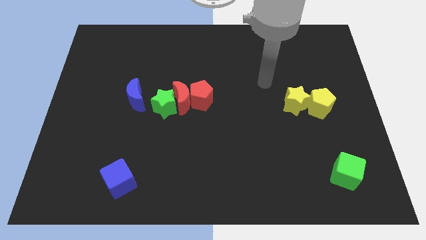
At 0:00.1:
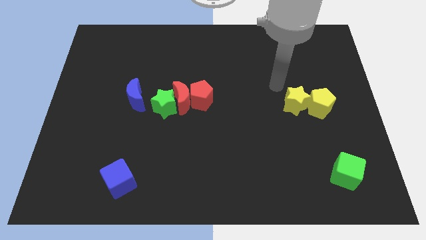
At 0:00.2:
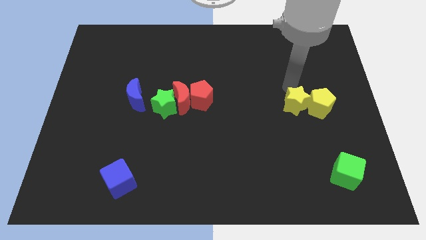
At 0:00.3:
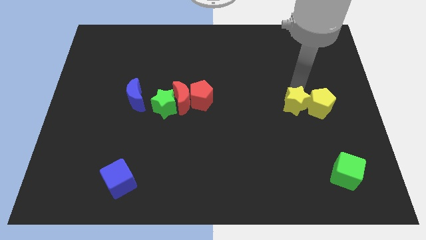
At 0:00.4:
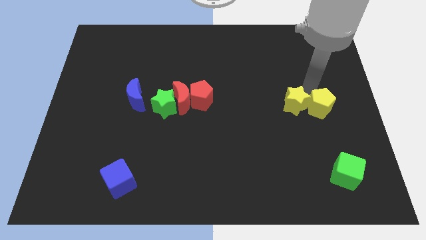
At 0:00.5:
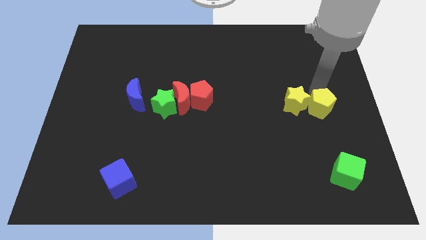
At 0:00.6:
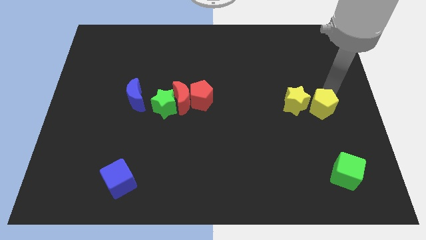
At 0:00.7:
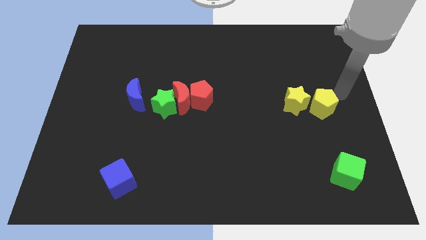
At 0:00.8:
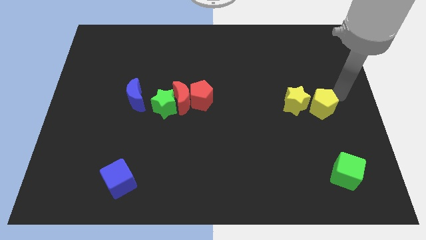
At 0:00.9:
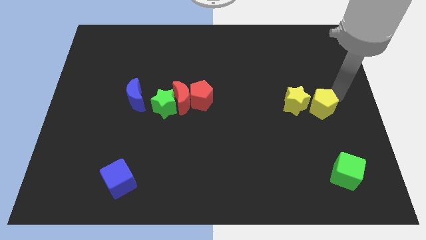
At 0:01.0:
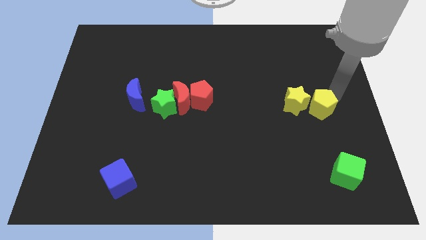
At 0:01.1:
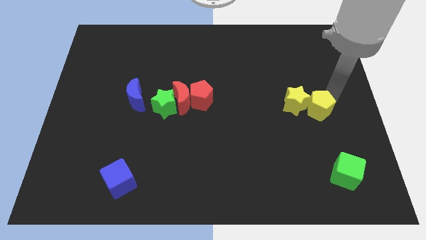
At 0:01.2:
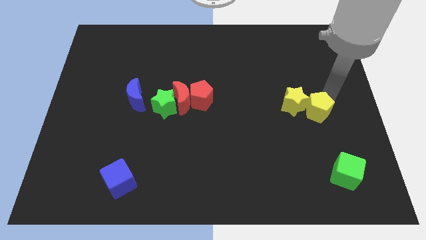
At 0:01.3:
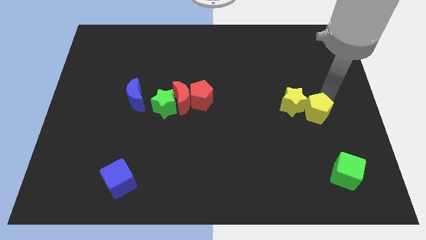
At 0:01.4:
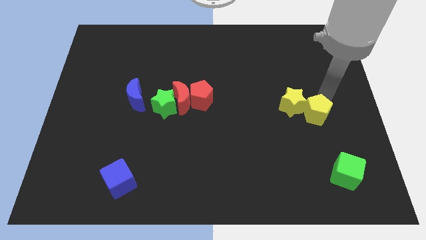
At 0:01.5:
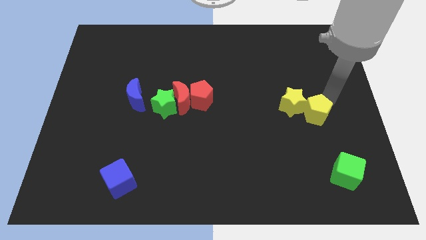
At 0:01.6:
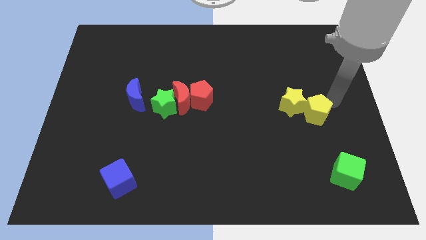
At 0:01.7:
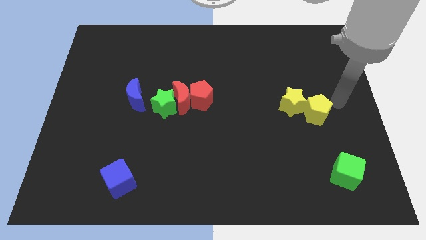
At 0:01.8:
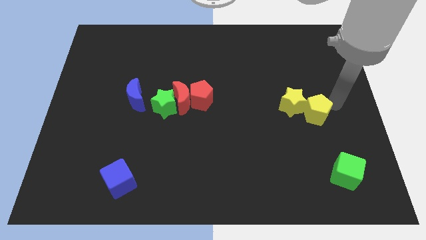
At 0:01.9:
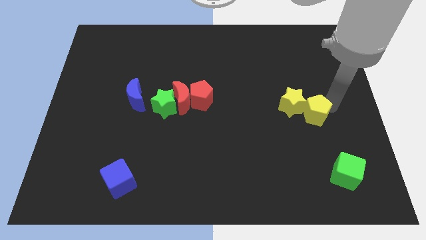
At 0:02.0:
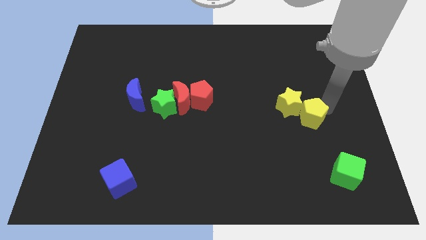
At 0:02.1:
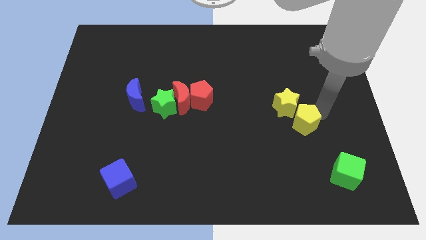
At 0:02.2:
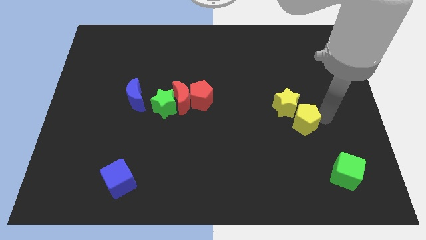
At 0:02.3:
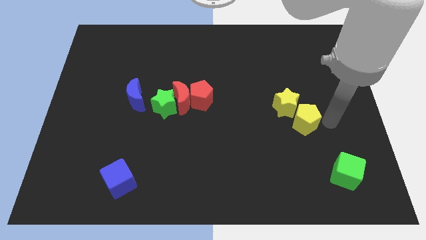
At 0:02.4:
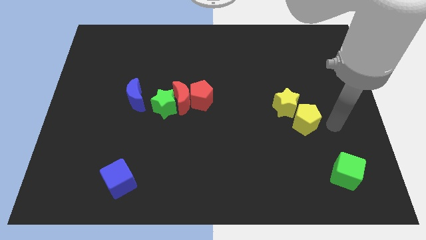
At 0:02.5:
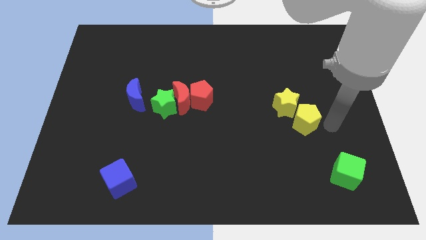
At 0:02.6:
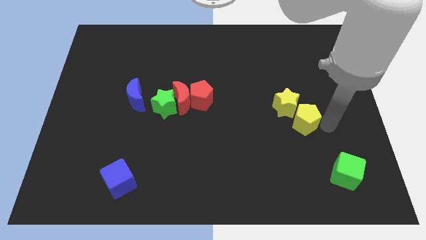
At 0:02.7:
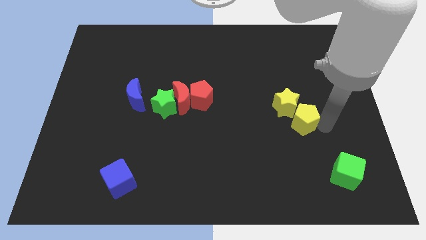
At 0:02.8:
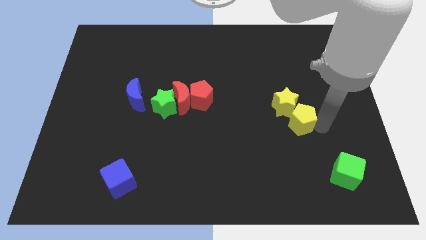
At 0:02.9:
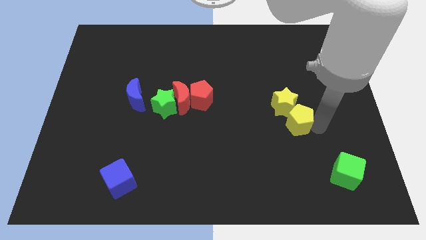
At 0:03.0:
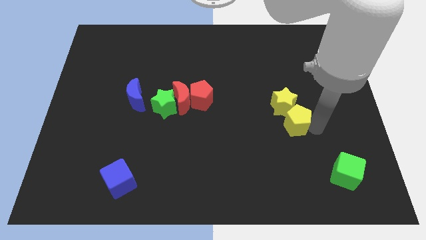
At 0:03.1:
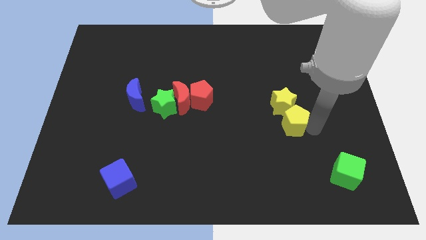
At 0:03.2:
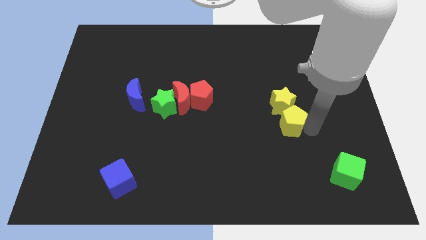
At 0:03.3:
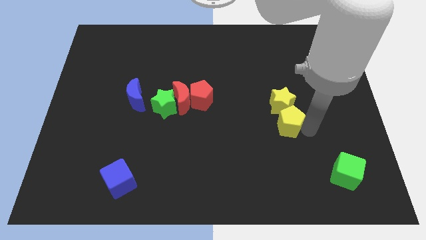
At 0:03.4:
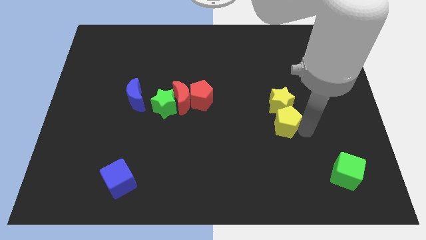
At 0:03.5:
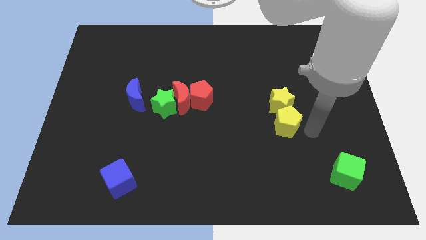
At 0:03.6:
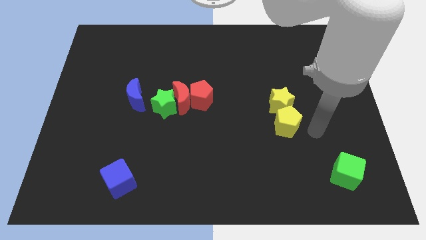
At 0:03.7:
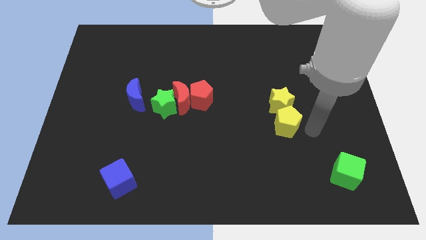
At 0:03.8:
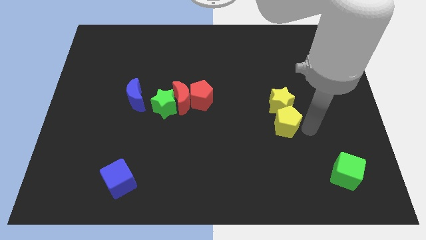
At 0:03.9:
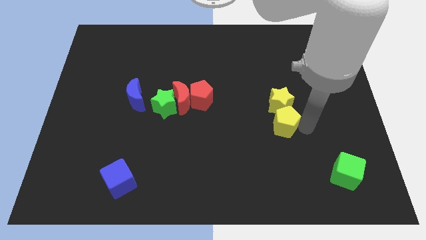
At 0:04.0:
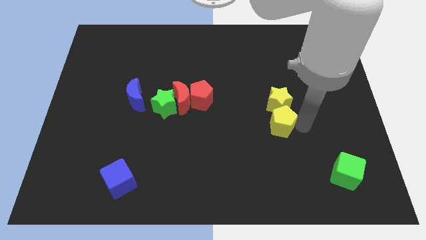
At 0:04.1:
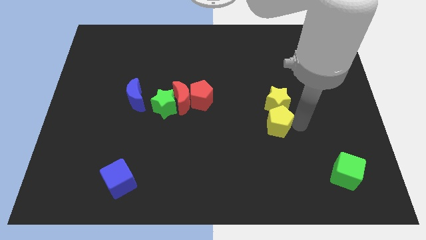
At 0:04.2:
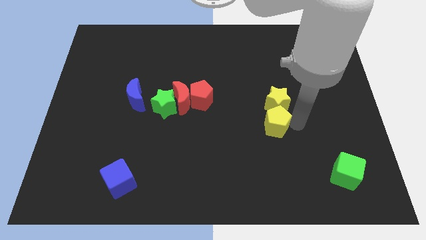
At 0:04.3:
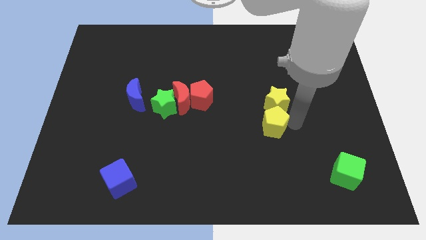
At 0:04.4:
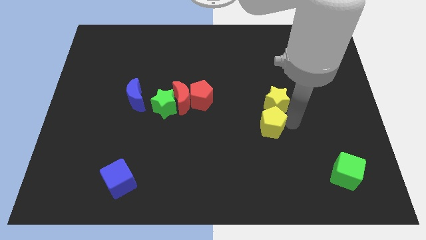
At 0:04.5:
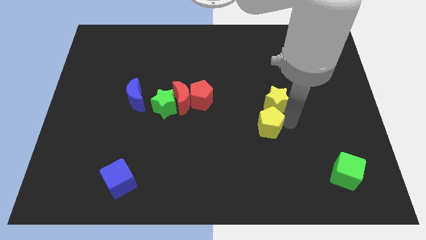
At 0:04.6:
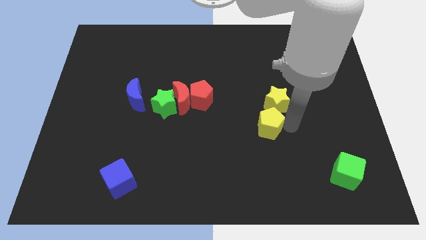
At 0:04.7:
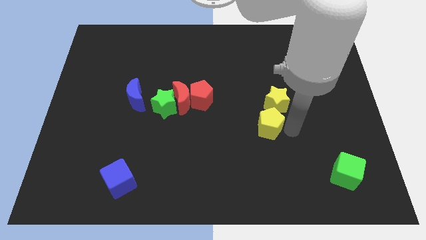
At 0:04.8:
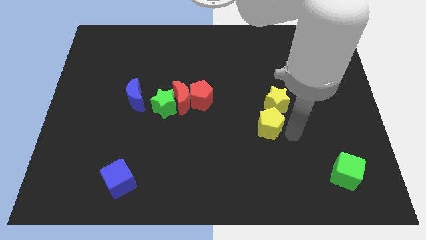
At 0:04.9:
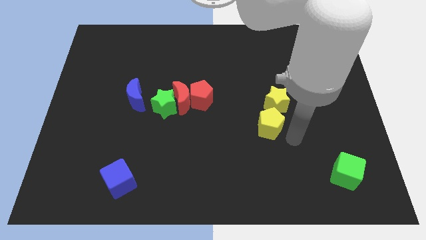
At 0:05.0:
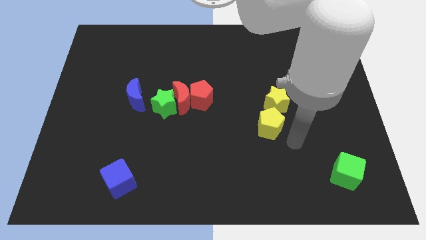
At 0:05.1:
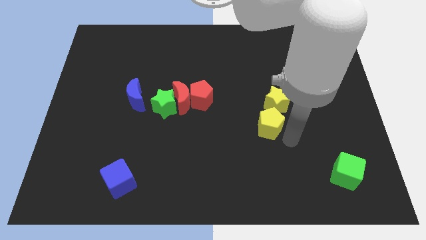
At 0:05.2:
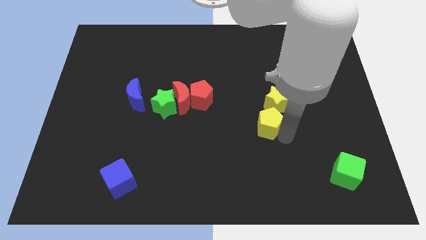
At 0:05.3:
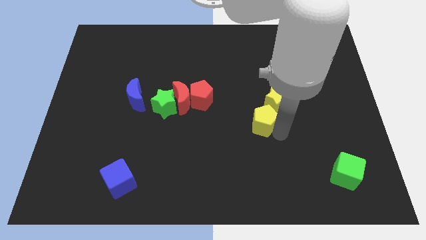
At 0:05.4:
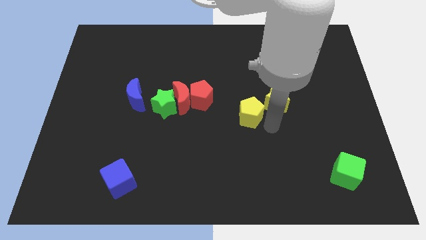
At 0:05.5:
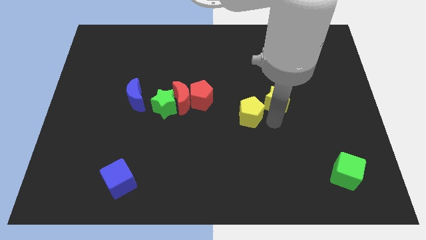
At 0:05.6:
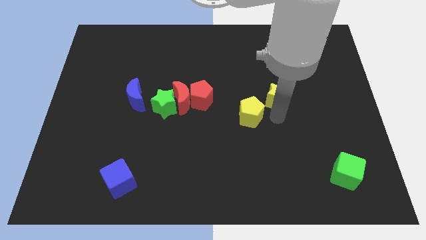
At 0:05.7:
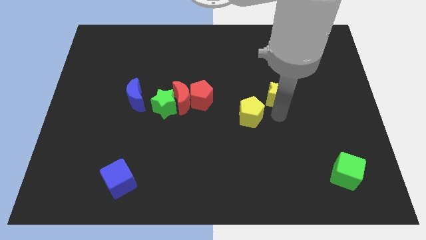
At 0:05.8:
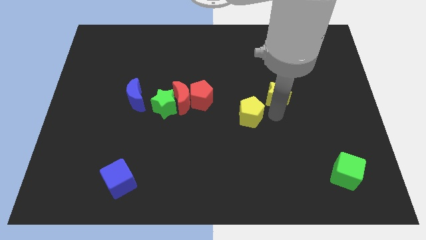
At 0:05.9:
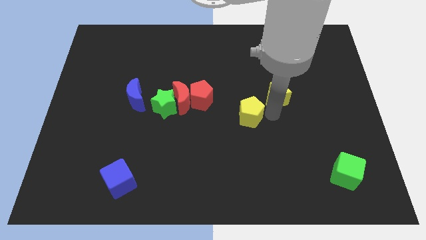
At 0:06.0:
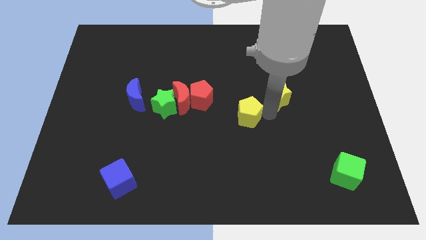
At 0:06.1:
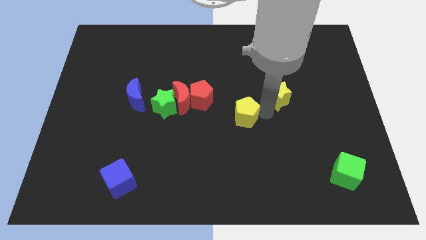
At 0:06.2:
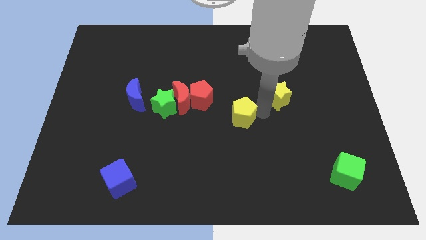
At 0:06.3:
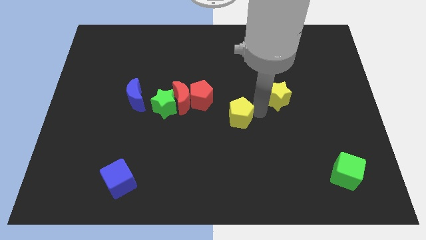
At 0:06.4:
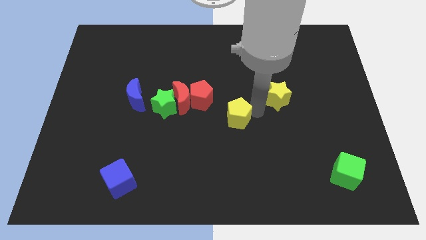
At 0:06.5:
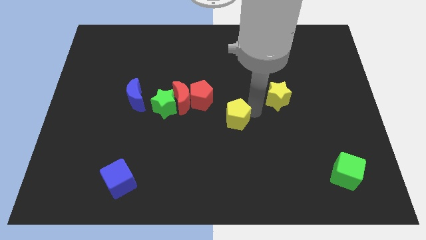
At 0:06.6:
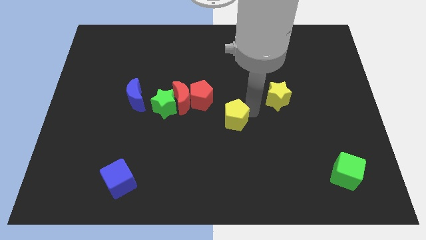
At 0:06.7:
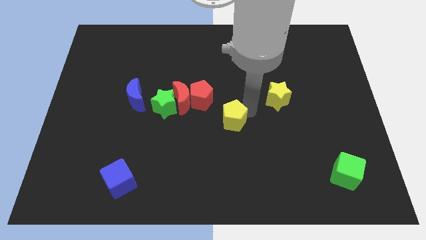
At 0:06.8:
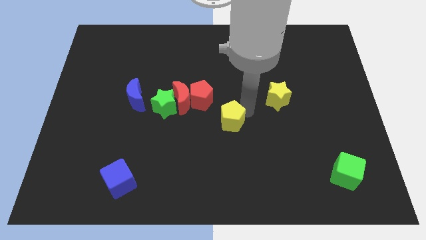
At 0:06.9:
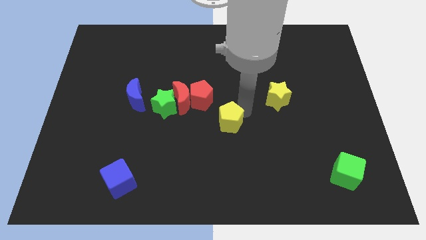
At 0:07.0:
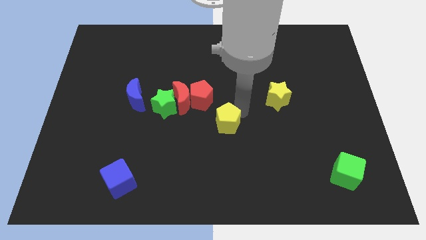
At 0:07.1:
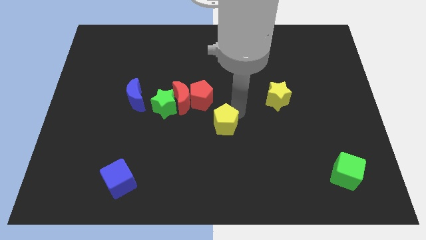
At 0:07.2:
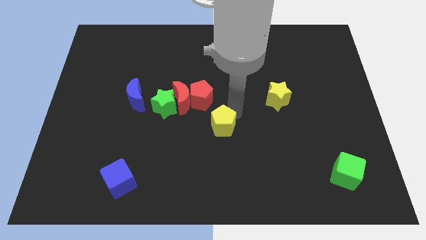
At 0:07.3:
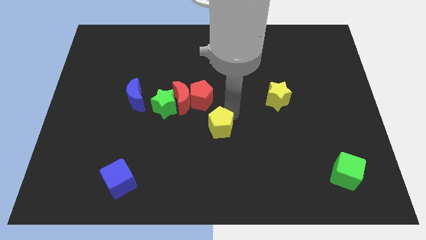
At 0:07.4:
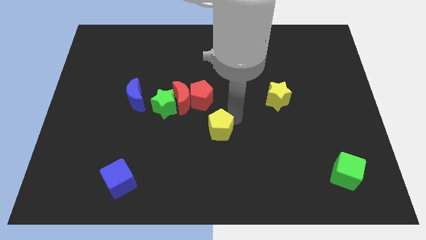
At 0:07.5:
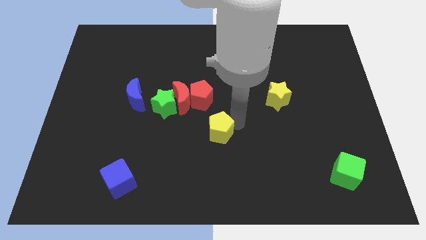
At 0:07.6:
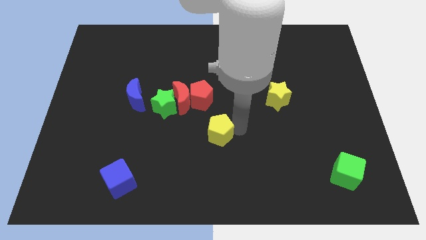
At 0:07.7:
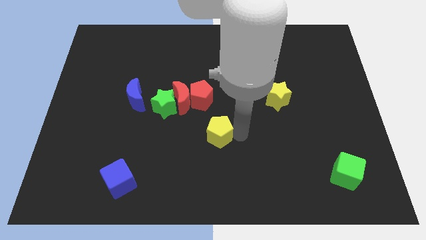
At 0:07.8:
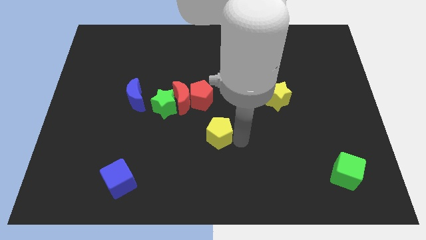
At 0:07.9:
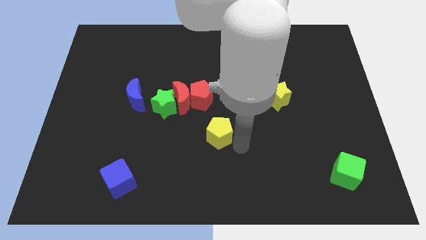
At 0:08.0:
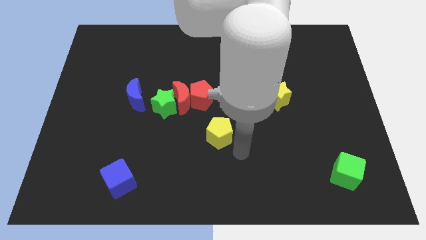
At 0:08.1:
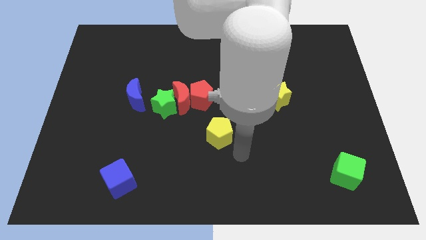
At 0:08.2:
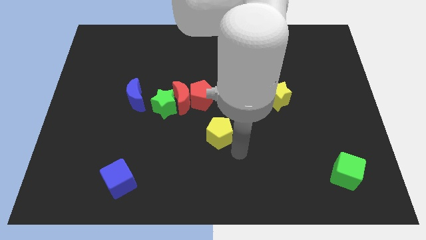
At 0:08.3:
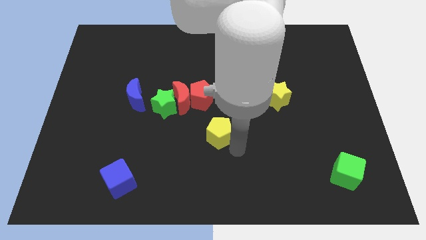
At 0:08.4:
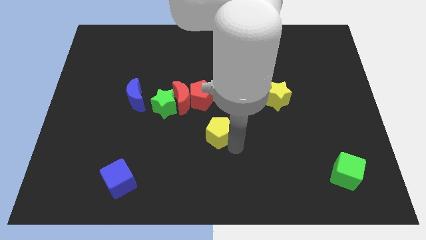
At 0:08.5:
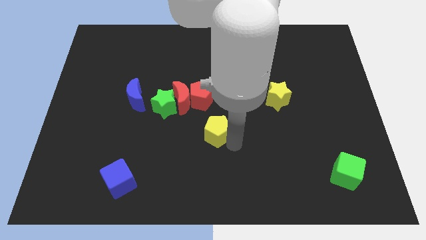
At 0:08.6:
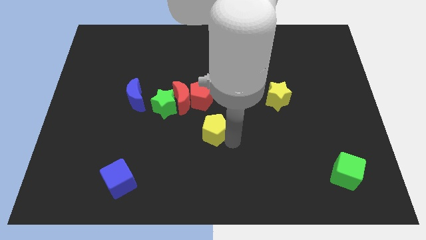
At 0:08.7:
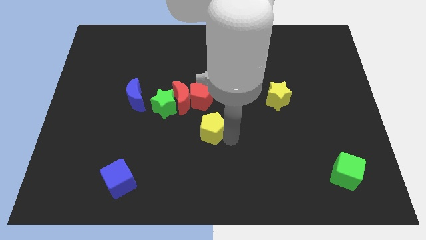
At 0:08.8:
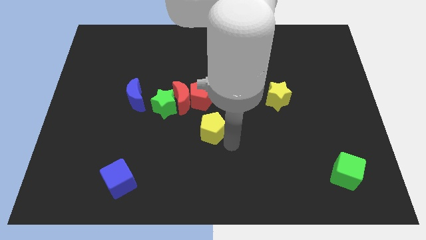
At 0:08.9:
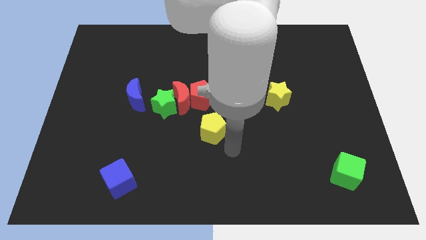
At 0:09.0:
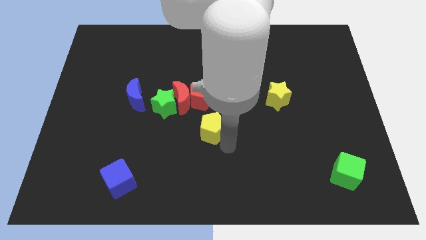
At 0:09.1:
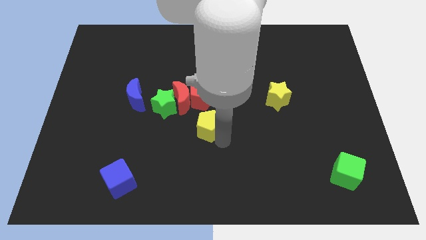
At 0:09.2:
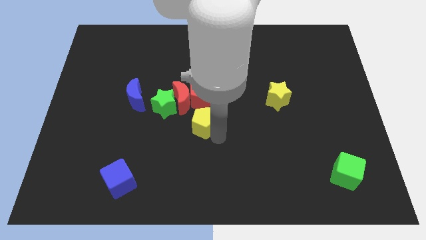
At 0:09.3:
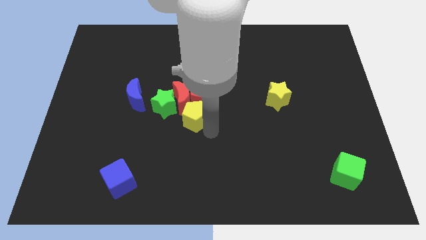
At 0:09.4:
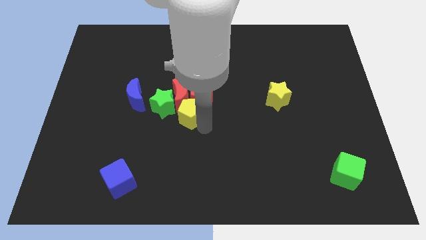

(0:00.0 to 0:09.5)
put the yellow pentagon to the red moon
